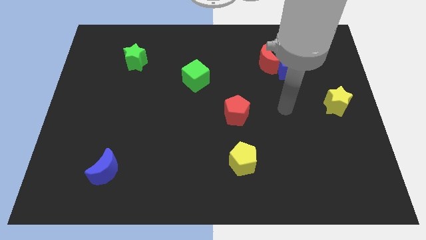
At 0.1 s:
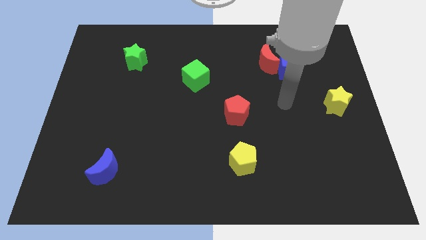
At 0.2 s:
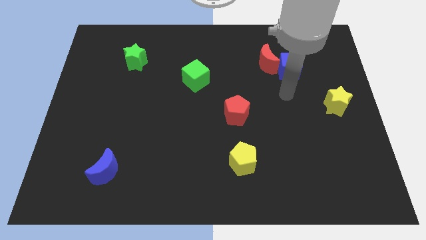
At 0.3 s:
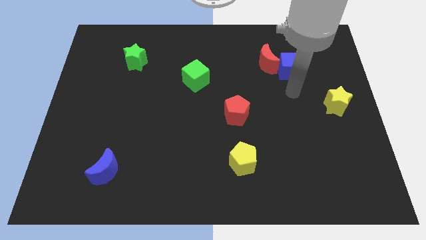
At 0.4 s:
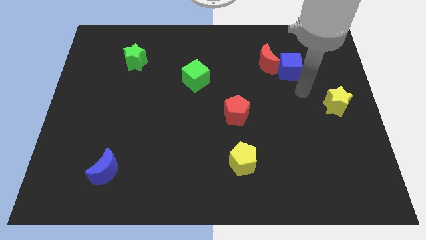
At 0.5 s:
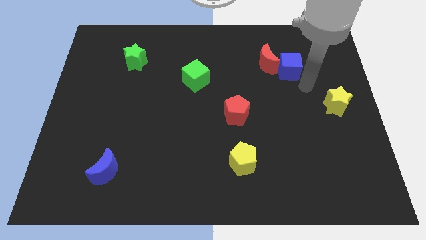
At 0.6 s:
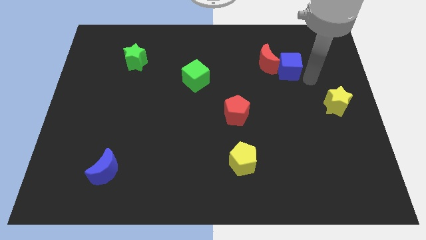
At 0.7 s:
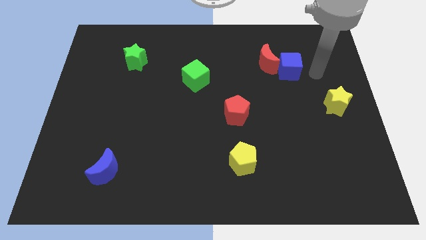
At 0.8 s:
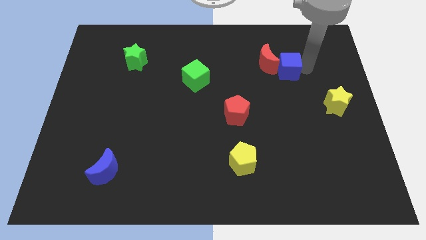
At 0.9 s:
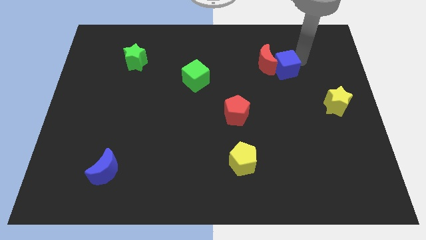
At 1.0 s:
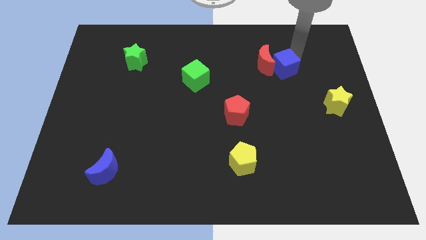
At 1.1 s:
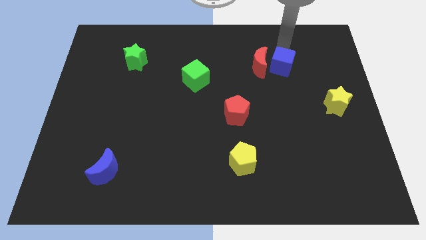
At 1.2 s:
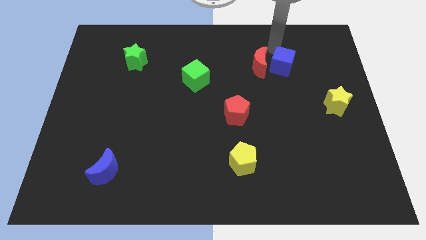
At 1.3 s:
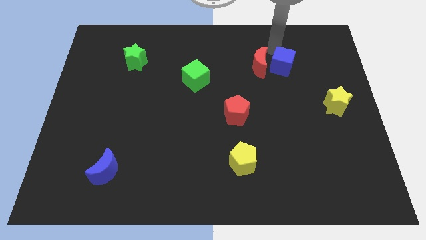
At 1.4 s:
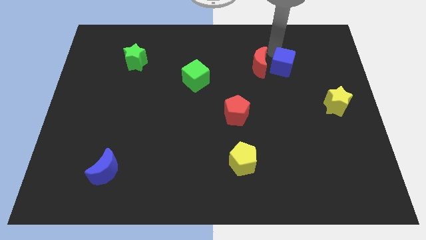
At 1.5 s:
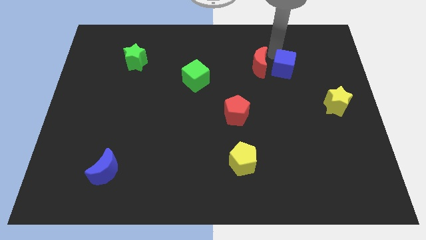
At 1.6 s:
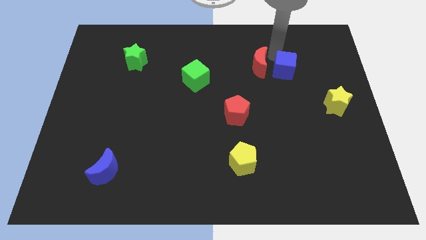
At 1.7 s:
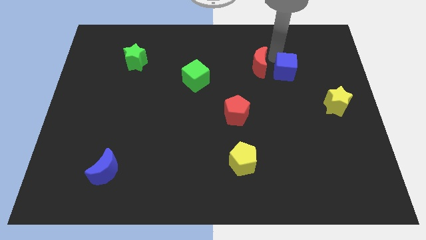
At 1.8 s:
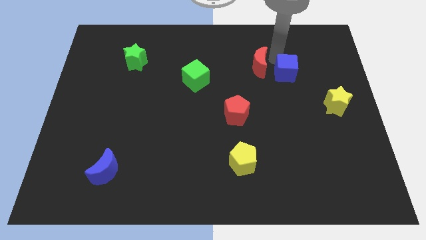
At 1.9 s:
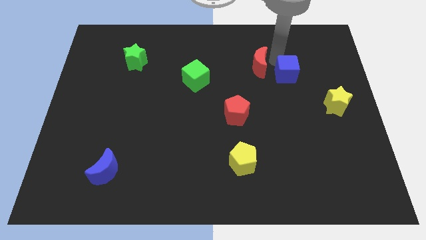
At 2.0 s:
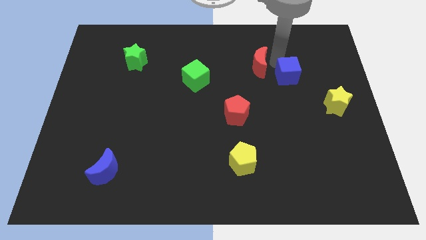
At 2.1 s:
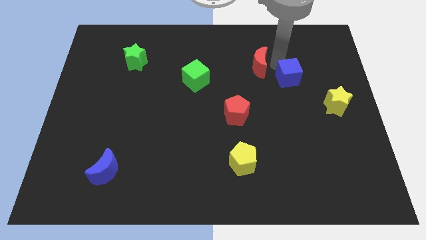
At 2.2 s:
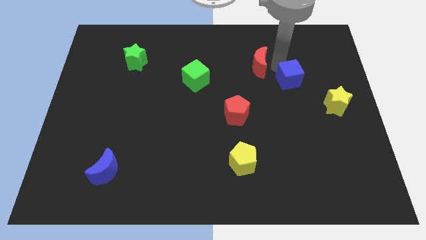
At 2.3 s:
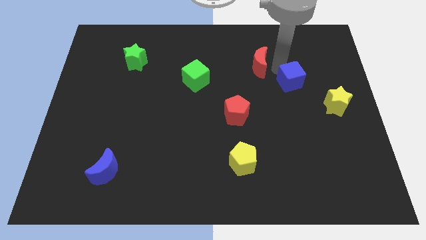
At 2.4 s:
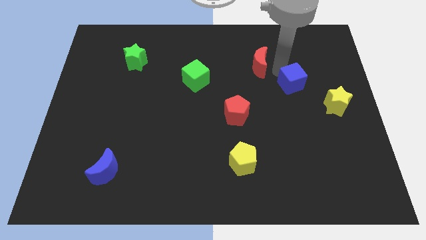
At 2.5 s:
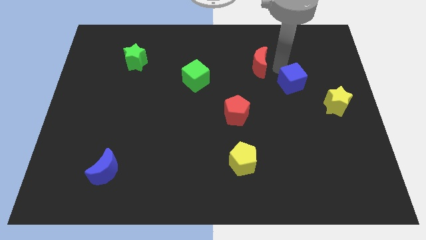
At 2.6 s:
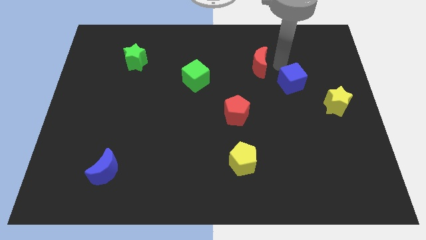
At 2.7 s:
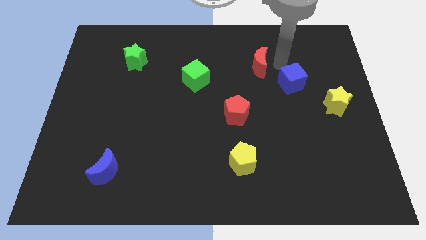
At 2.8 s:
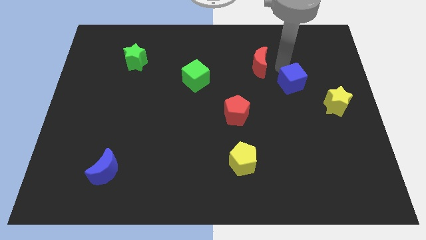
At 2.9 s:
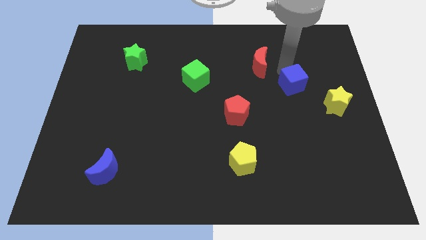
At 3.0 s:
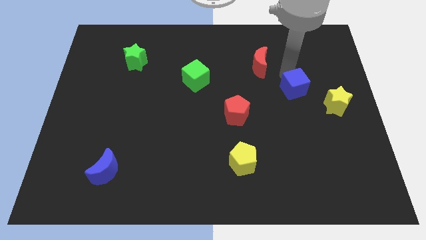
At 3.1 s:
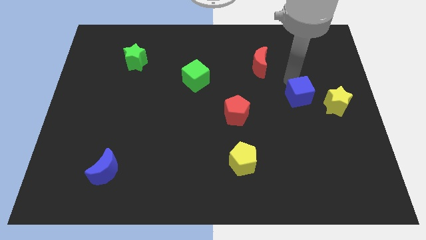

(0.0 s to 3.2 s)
slide the blue cube down a little bit

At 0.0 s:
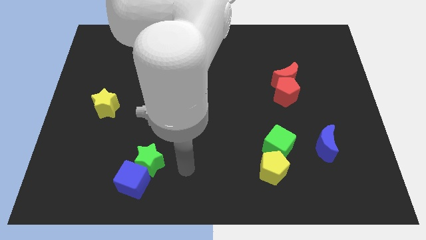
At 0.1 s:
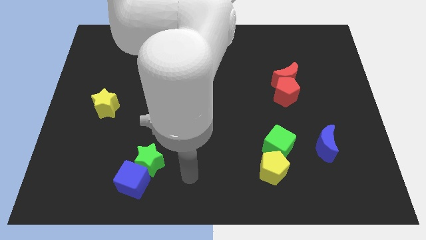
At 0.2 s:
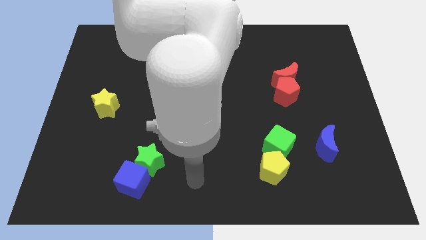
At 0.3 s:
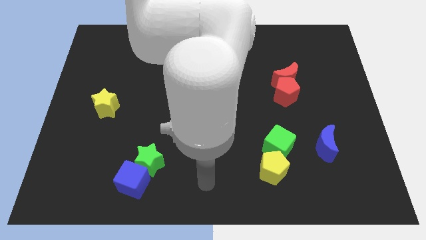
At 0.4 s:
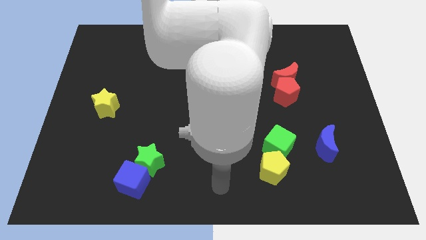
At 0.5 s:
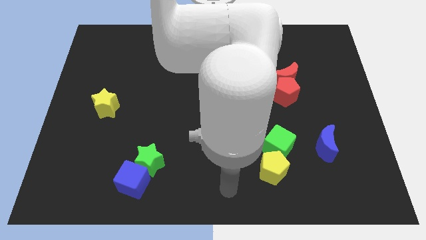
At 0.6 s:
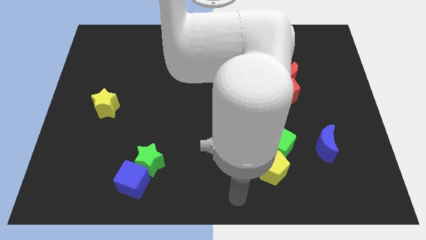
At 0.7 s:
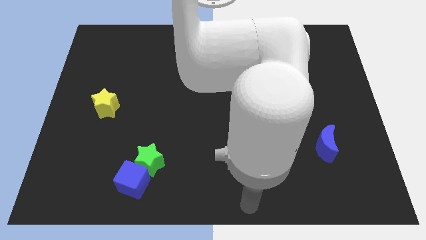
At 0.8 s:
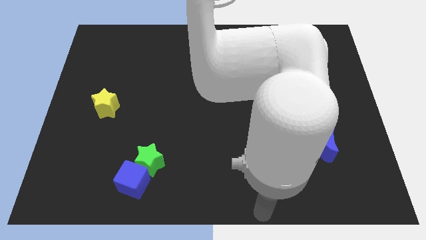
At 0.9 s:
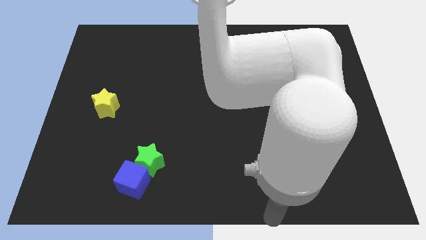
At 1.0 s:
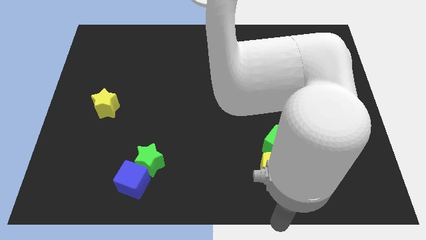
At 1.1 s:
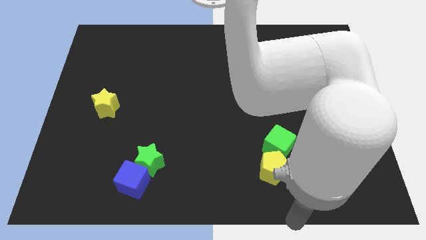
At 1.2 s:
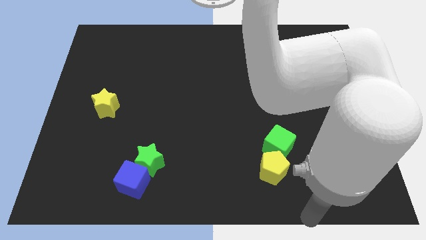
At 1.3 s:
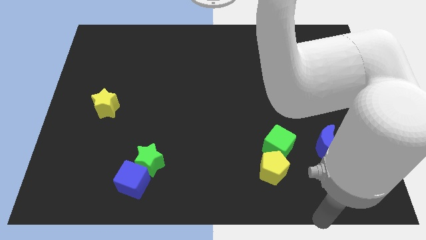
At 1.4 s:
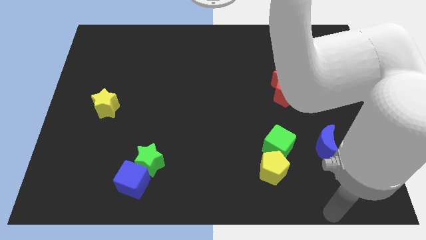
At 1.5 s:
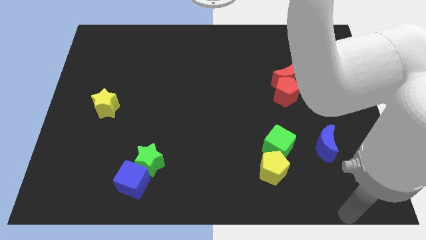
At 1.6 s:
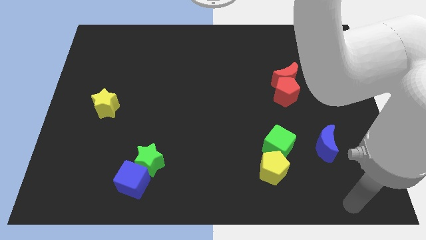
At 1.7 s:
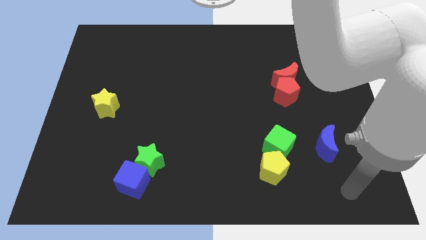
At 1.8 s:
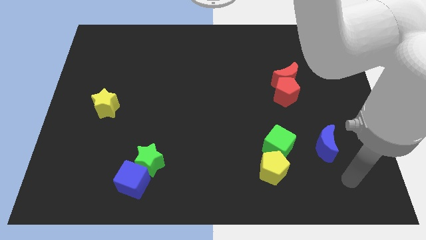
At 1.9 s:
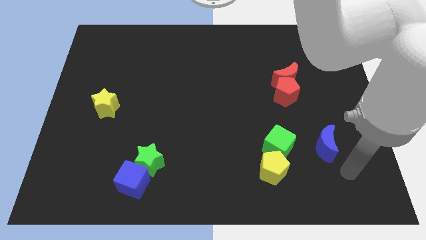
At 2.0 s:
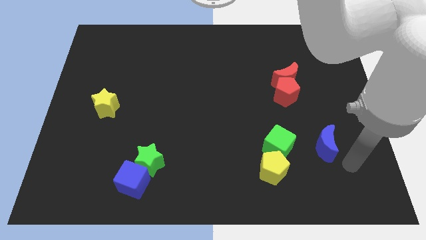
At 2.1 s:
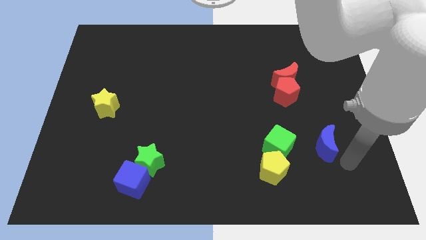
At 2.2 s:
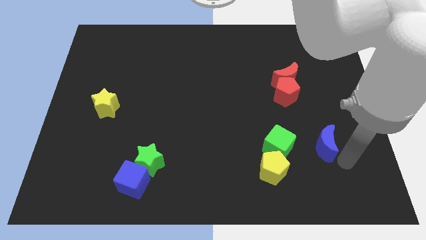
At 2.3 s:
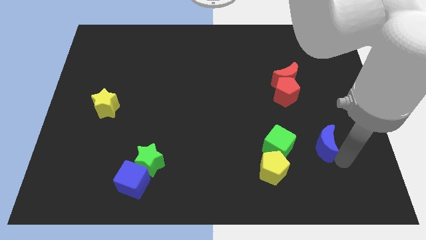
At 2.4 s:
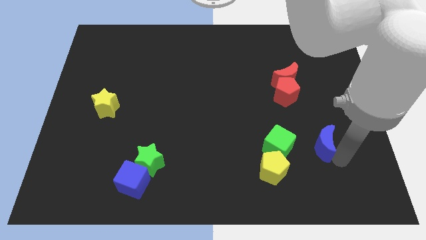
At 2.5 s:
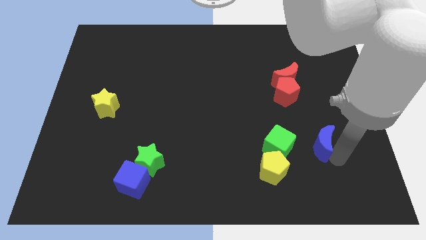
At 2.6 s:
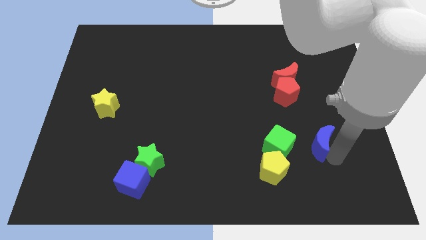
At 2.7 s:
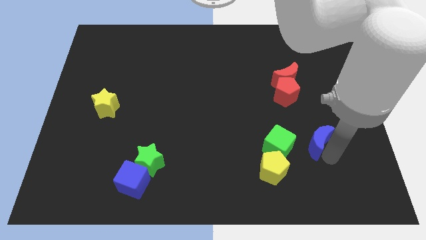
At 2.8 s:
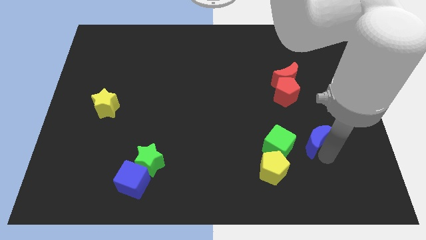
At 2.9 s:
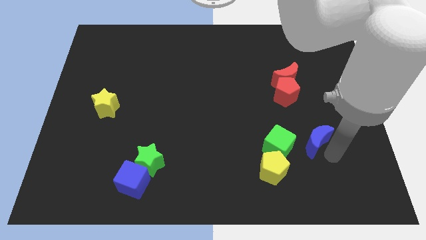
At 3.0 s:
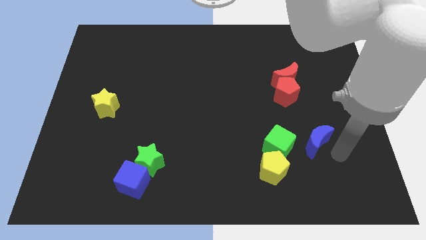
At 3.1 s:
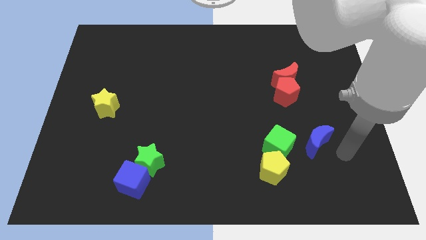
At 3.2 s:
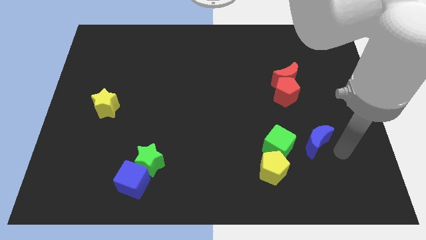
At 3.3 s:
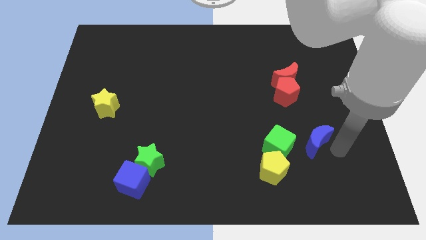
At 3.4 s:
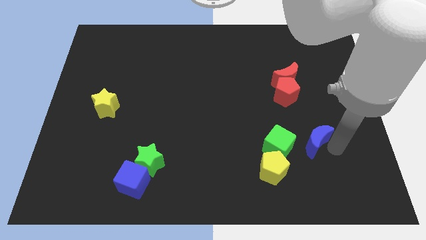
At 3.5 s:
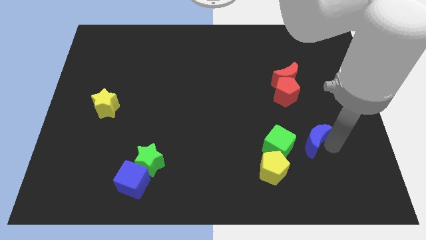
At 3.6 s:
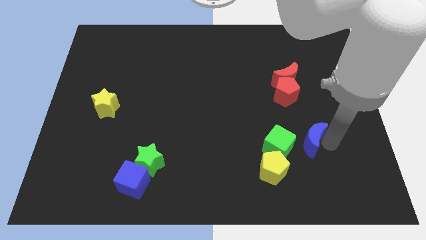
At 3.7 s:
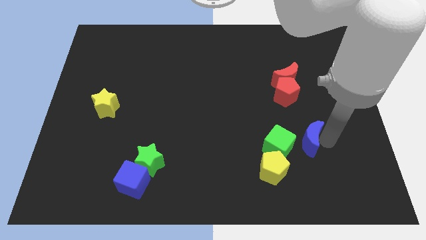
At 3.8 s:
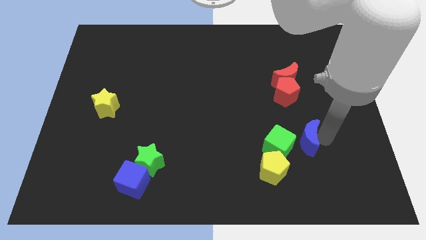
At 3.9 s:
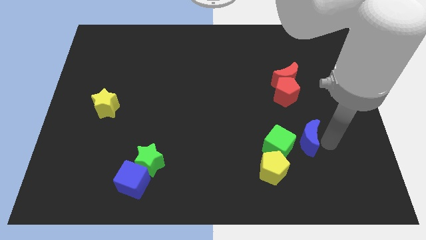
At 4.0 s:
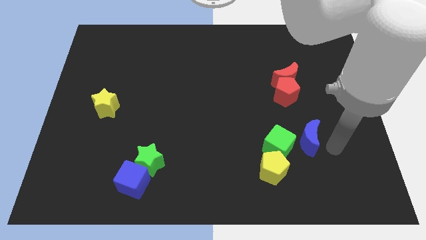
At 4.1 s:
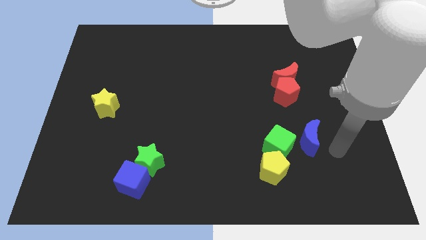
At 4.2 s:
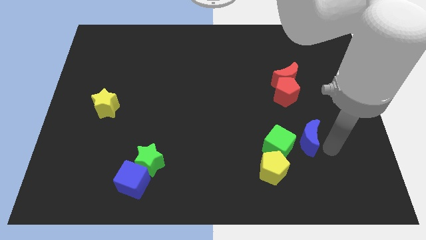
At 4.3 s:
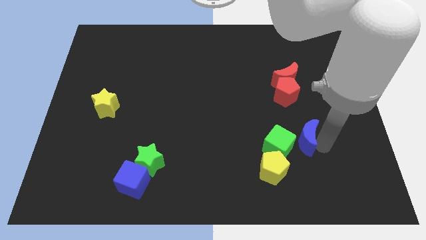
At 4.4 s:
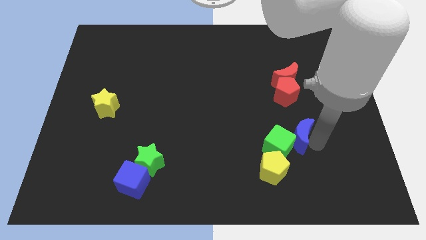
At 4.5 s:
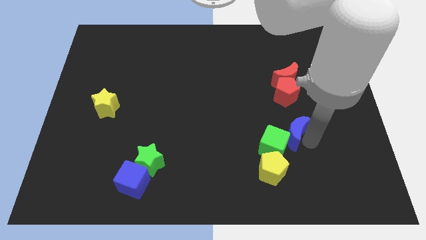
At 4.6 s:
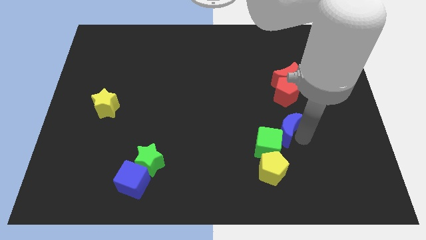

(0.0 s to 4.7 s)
move the blue moon a little bit left
